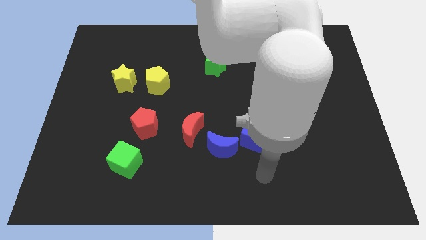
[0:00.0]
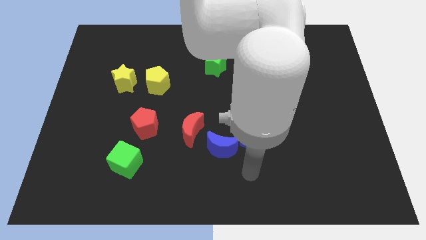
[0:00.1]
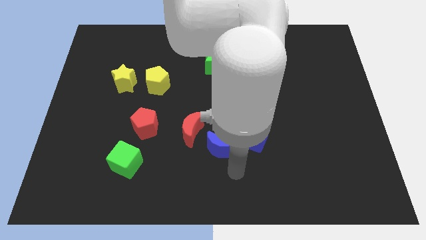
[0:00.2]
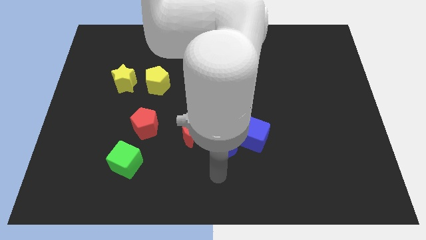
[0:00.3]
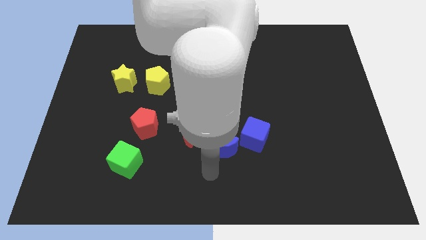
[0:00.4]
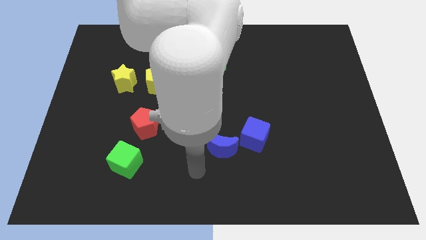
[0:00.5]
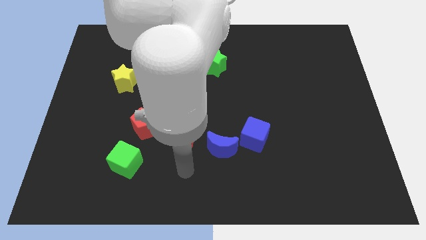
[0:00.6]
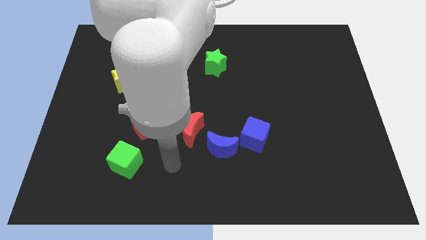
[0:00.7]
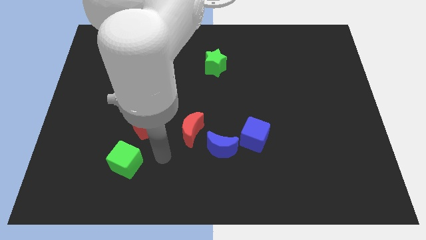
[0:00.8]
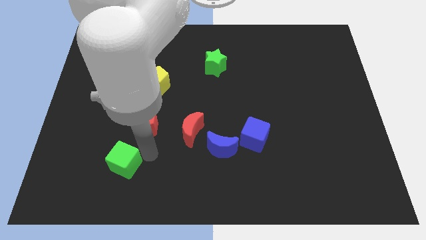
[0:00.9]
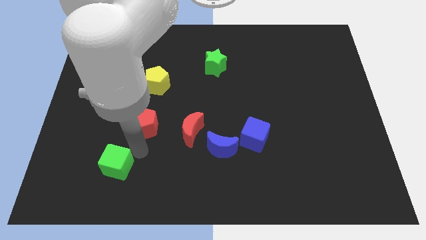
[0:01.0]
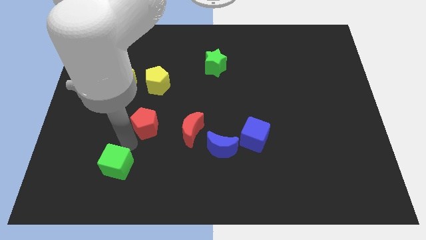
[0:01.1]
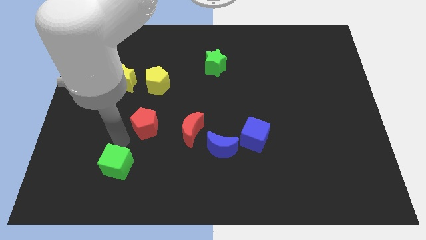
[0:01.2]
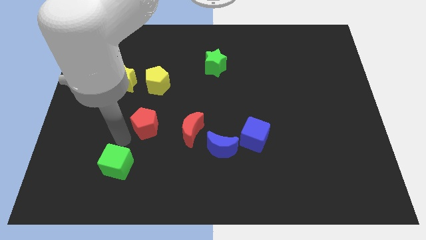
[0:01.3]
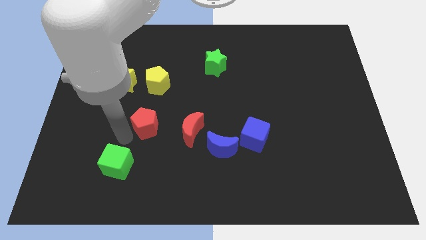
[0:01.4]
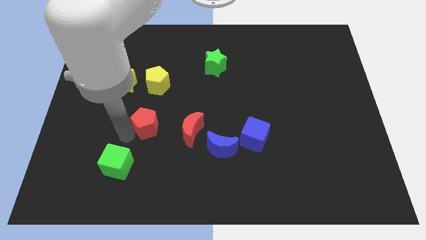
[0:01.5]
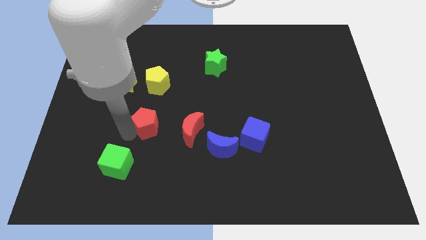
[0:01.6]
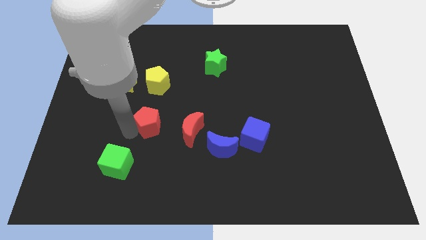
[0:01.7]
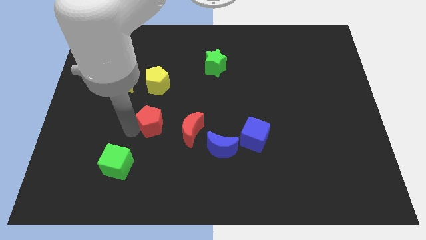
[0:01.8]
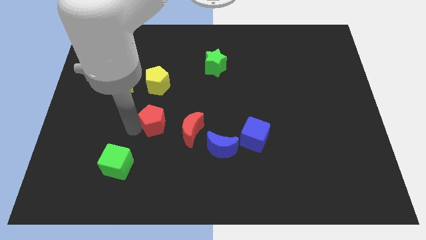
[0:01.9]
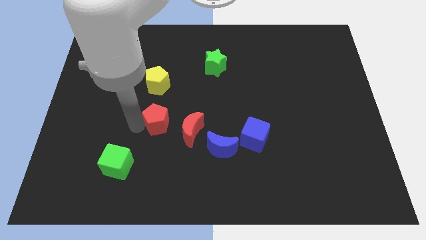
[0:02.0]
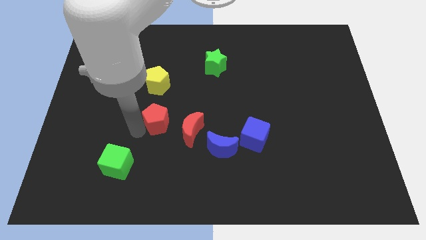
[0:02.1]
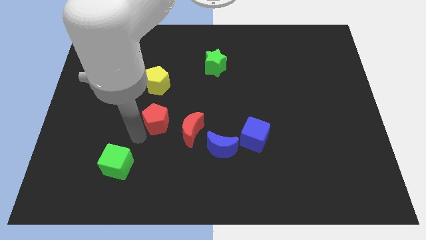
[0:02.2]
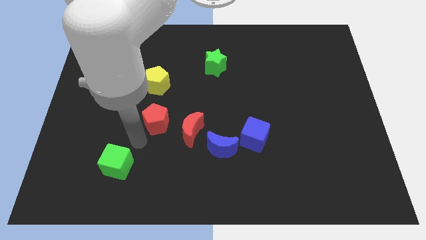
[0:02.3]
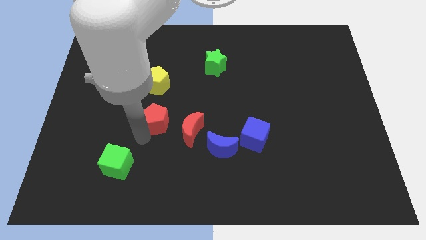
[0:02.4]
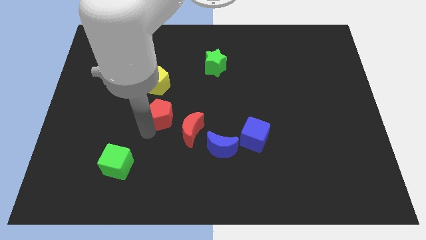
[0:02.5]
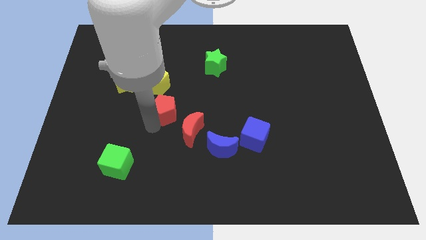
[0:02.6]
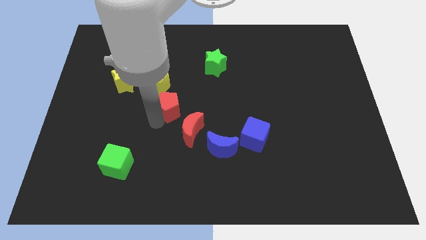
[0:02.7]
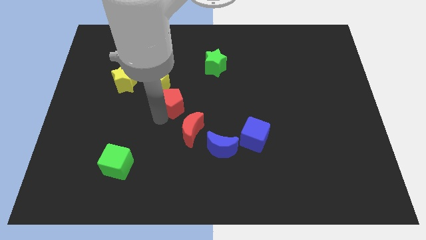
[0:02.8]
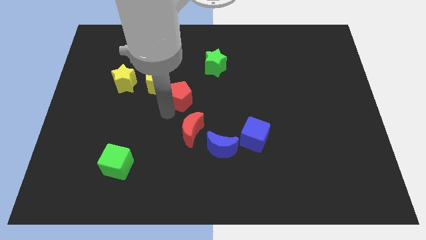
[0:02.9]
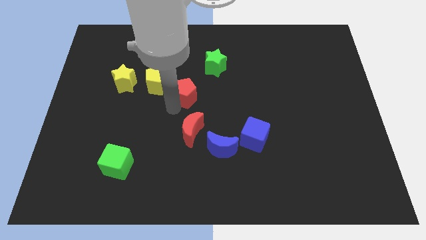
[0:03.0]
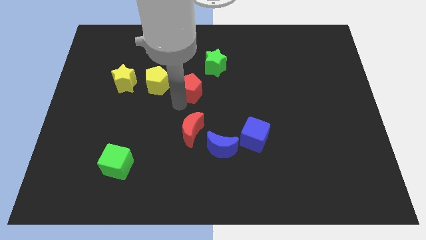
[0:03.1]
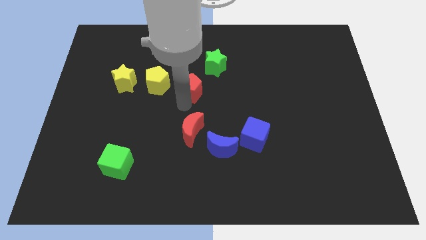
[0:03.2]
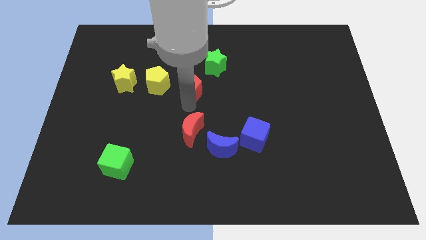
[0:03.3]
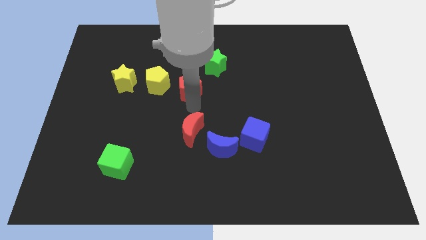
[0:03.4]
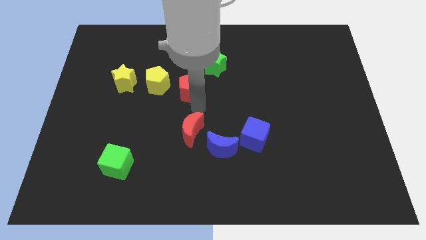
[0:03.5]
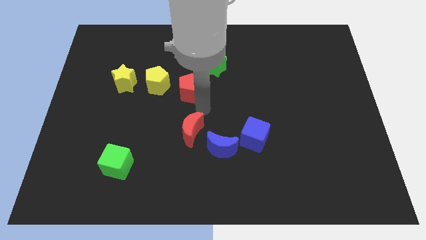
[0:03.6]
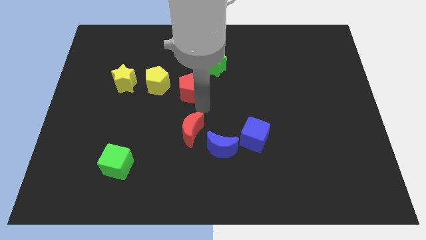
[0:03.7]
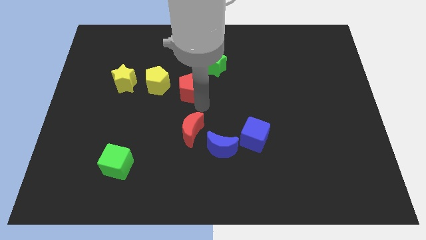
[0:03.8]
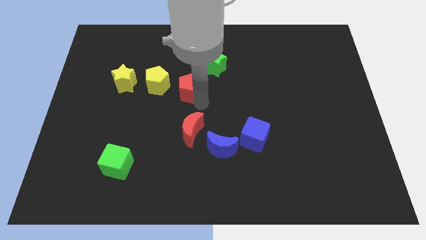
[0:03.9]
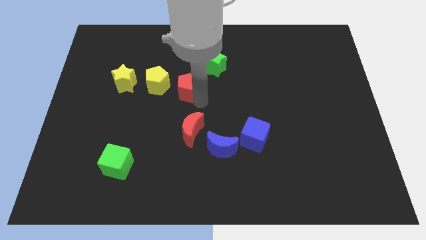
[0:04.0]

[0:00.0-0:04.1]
move the red pentagon up a little bit

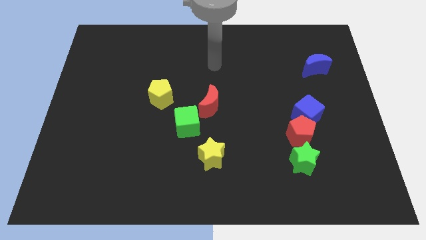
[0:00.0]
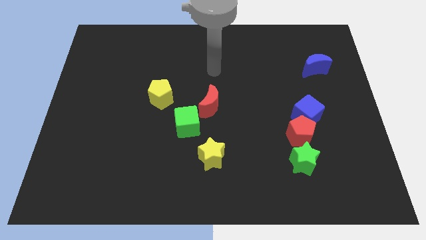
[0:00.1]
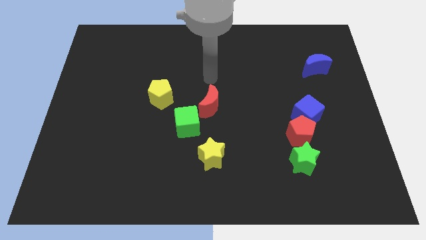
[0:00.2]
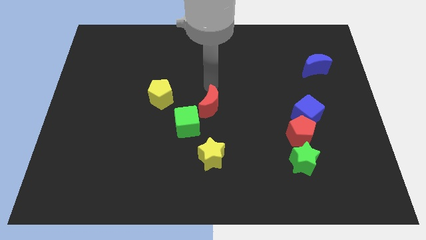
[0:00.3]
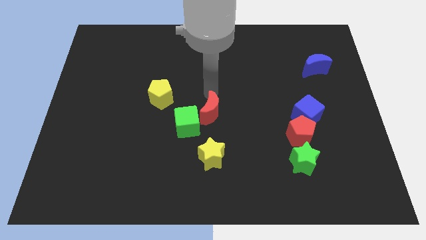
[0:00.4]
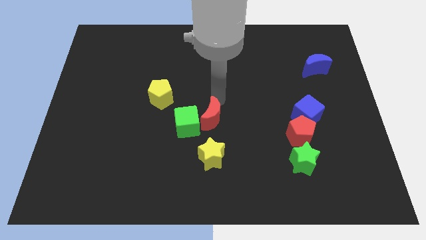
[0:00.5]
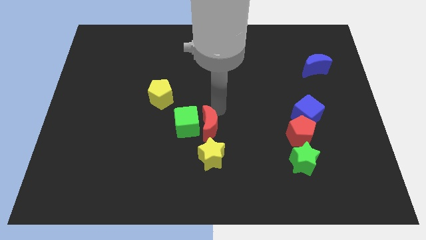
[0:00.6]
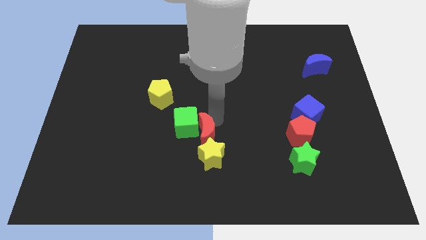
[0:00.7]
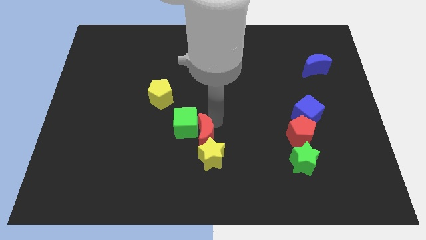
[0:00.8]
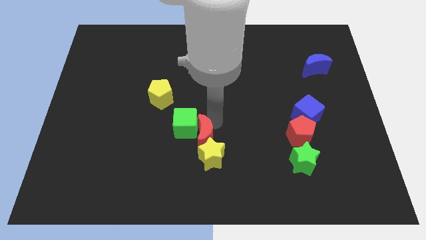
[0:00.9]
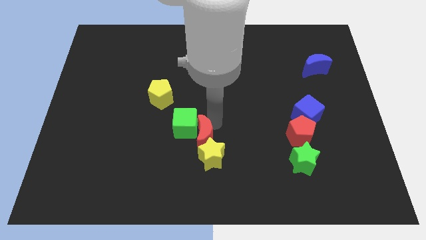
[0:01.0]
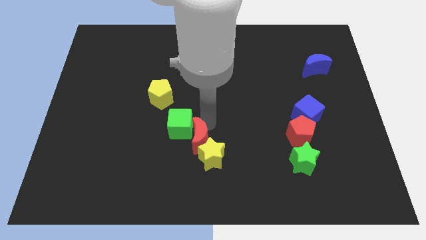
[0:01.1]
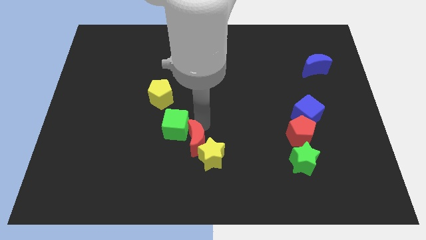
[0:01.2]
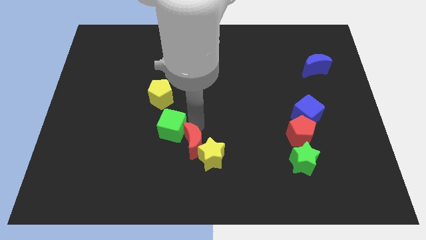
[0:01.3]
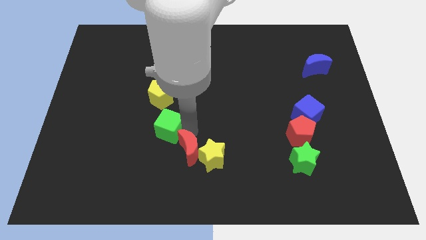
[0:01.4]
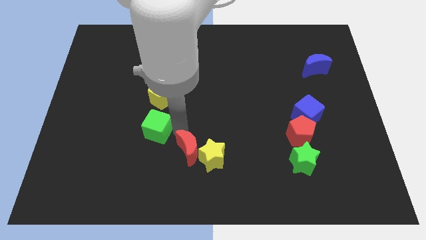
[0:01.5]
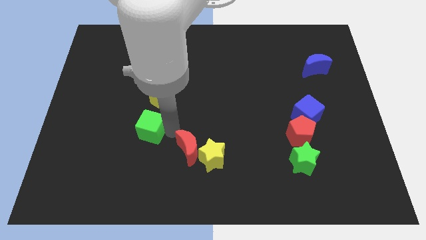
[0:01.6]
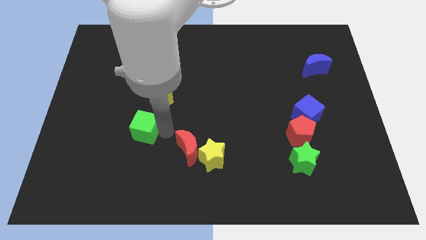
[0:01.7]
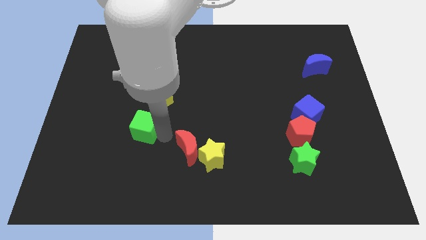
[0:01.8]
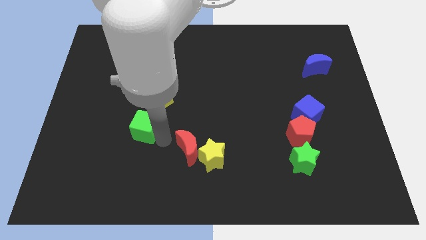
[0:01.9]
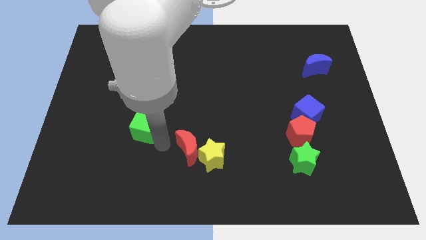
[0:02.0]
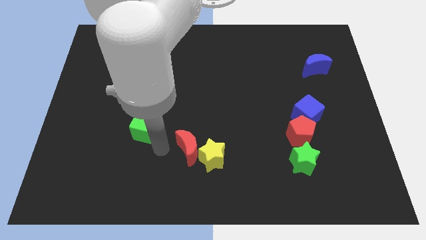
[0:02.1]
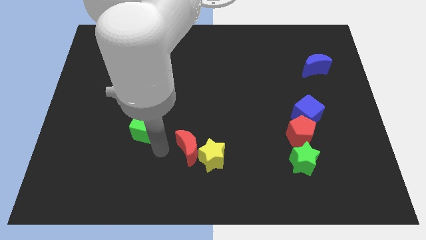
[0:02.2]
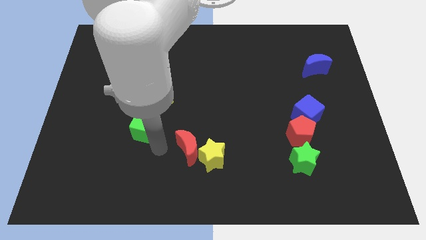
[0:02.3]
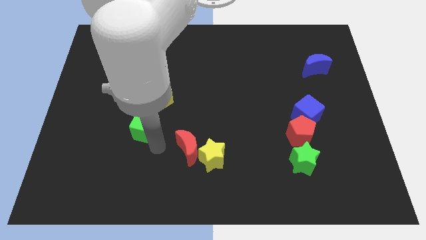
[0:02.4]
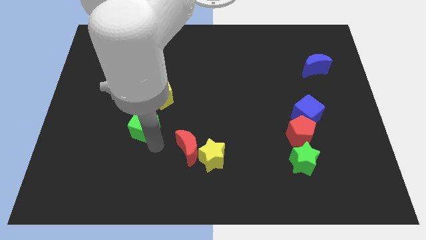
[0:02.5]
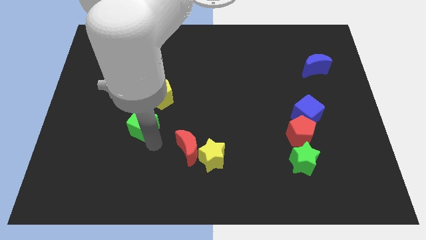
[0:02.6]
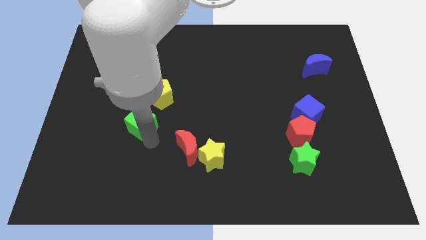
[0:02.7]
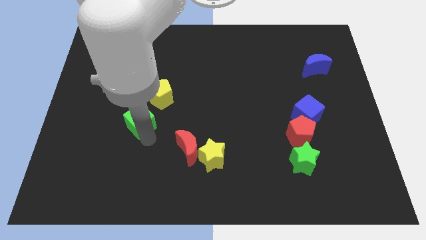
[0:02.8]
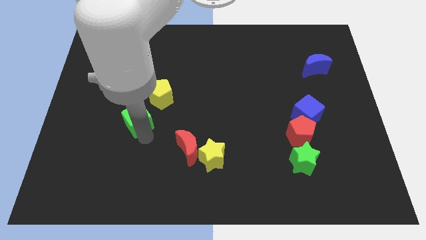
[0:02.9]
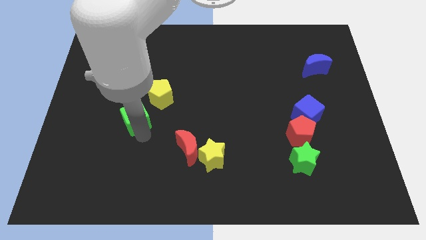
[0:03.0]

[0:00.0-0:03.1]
slightly push the green cube up and then left

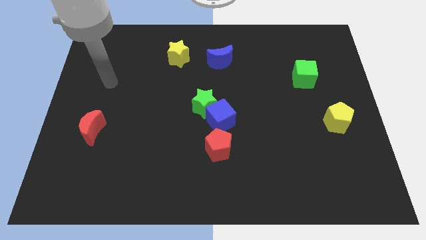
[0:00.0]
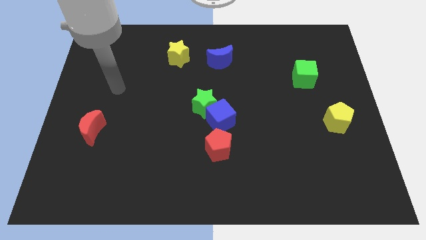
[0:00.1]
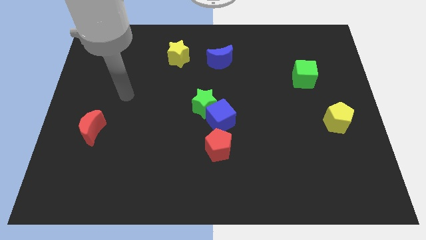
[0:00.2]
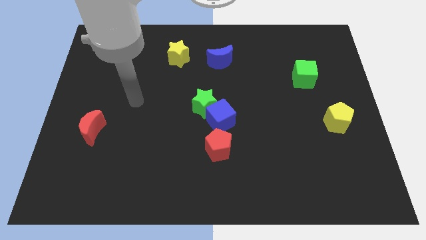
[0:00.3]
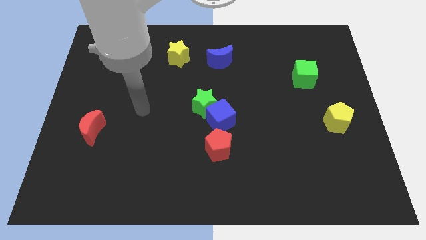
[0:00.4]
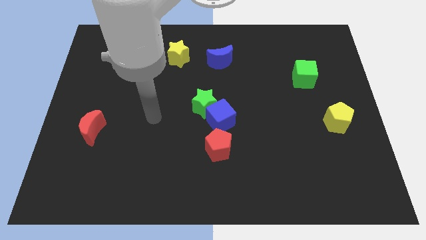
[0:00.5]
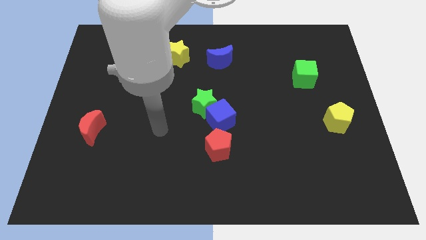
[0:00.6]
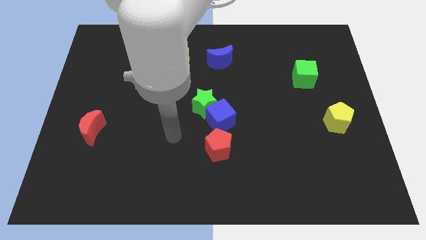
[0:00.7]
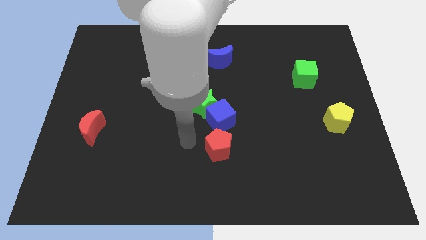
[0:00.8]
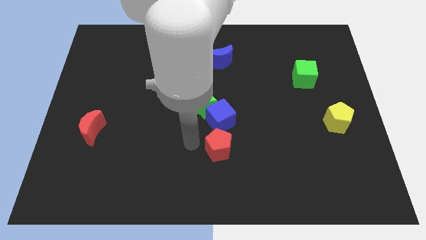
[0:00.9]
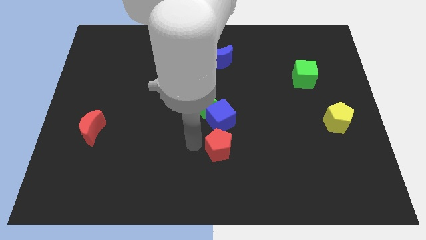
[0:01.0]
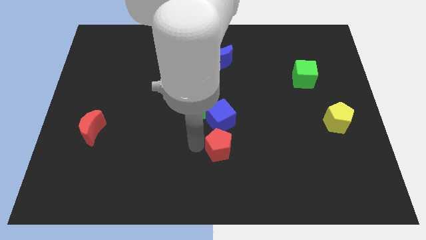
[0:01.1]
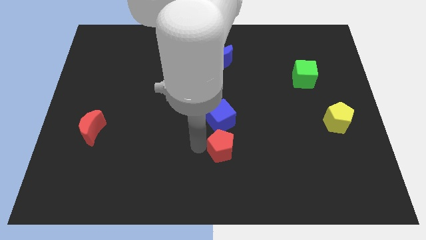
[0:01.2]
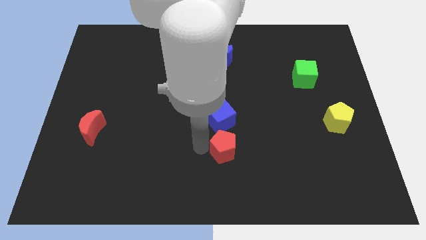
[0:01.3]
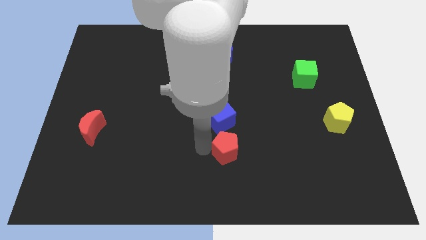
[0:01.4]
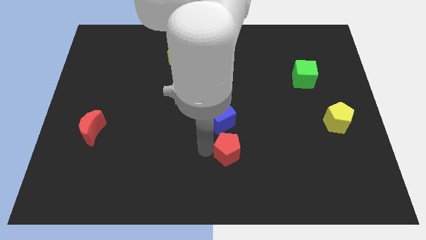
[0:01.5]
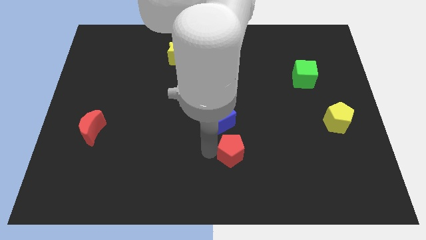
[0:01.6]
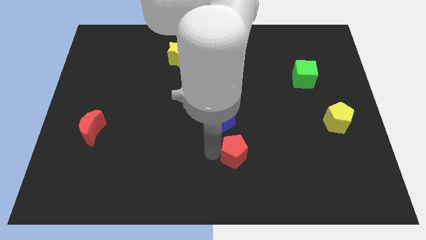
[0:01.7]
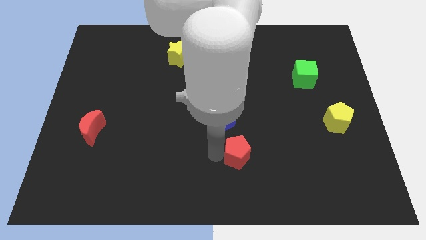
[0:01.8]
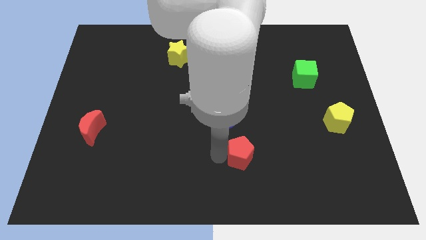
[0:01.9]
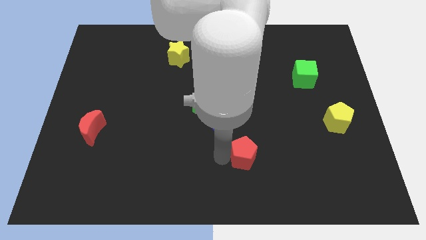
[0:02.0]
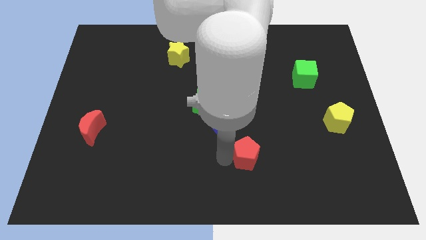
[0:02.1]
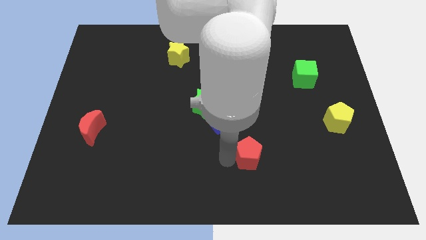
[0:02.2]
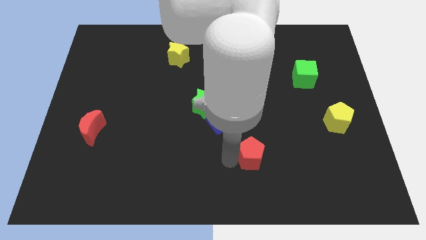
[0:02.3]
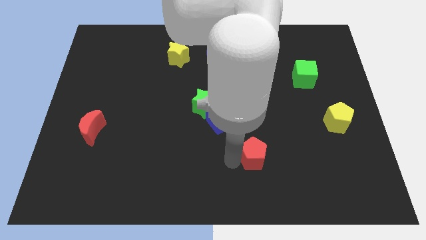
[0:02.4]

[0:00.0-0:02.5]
slightly push the red pentagon to the right
